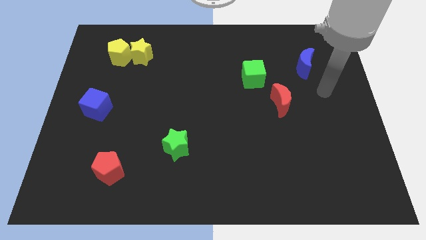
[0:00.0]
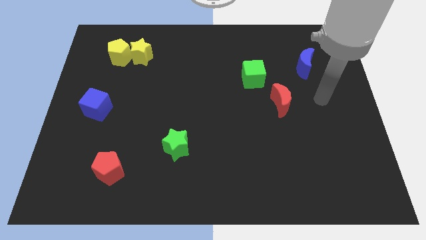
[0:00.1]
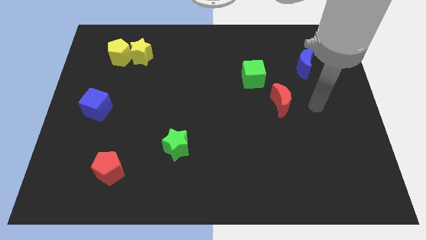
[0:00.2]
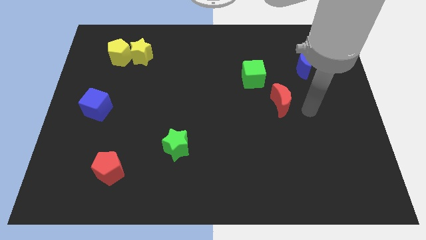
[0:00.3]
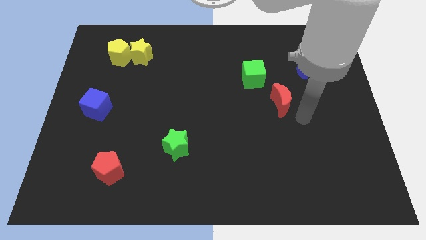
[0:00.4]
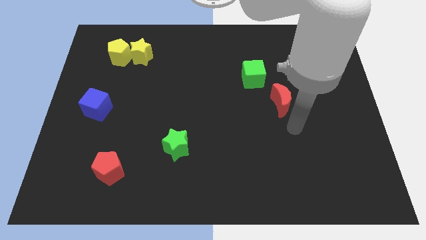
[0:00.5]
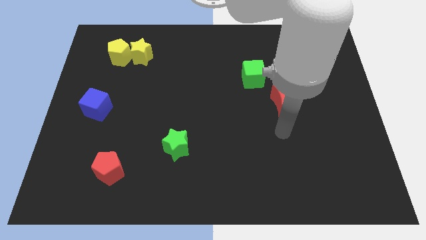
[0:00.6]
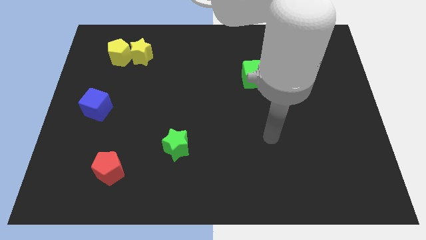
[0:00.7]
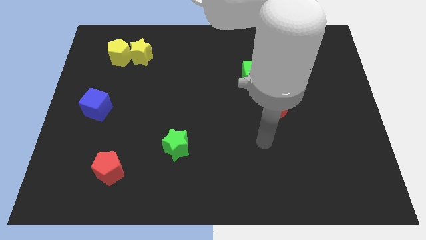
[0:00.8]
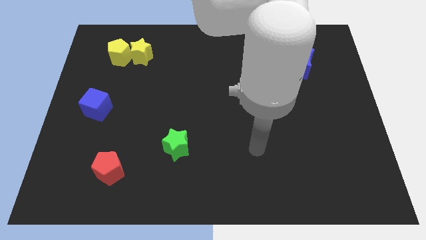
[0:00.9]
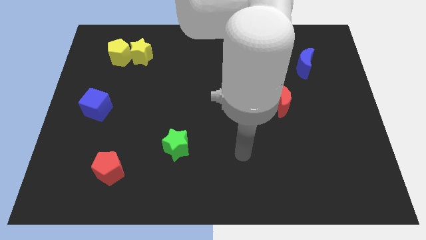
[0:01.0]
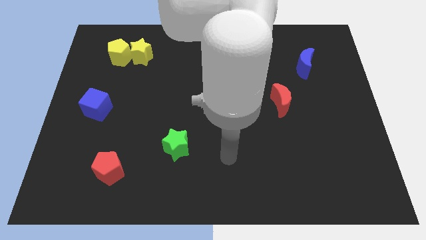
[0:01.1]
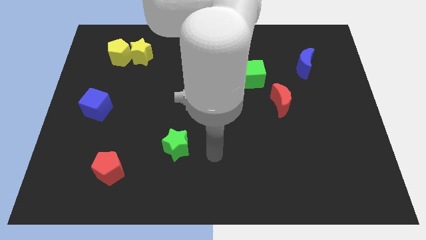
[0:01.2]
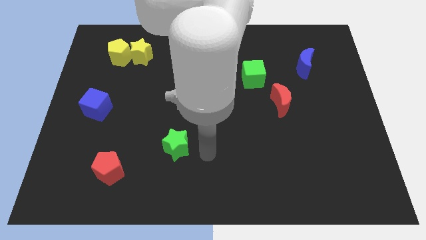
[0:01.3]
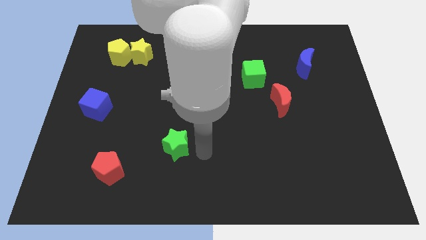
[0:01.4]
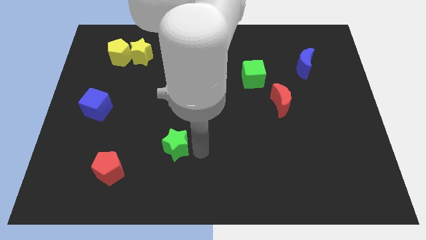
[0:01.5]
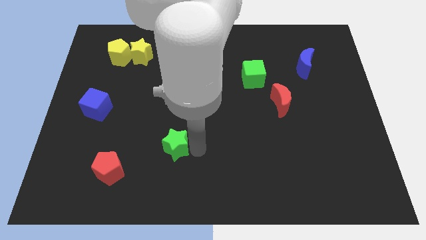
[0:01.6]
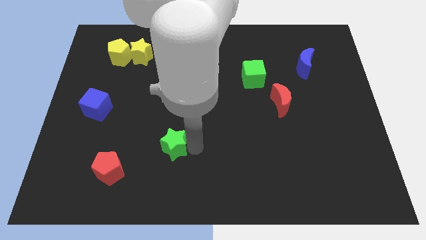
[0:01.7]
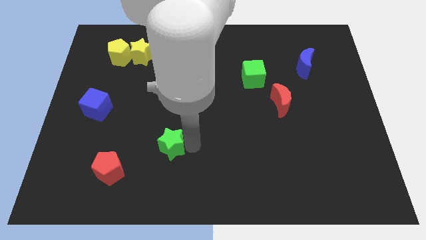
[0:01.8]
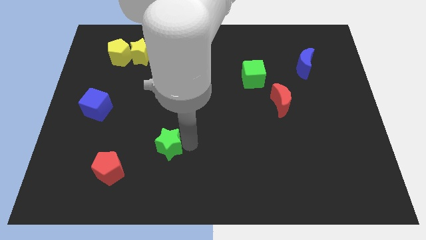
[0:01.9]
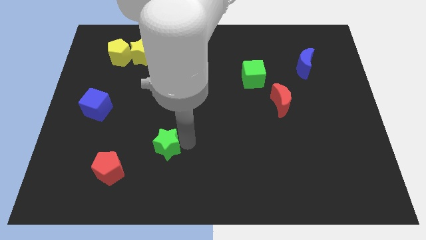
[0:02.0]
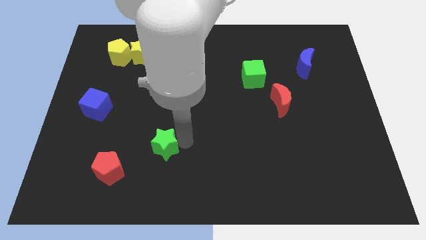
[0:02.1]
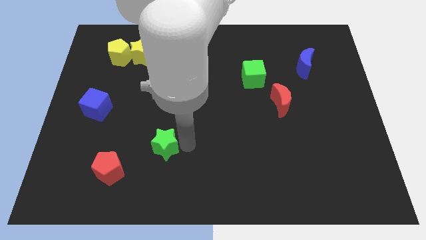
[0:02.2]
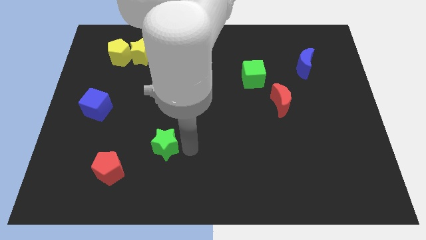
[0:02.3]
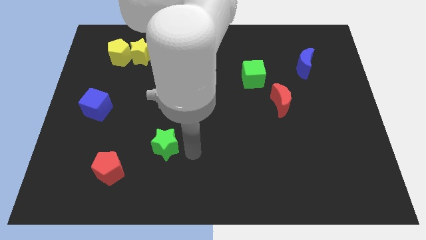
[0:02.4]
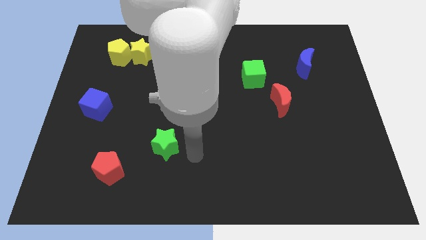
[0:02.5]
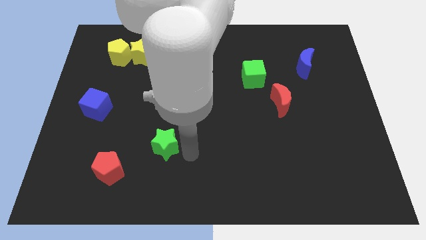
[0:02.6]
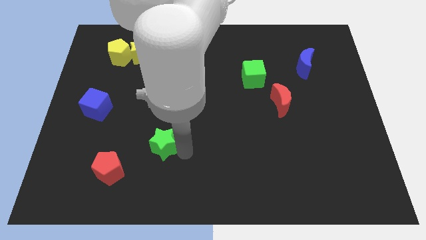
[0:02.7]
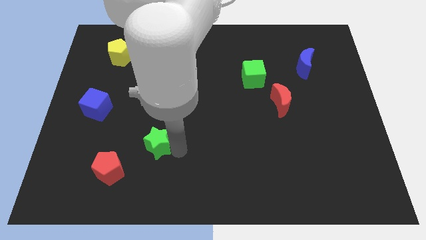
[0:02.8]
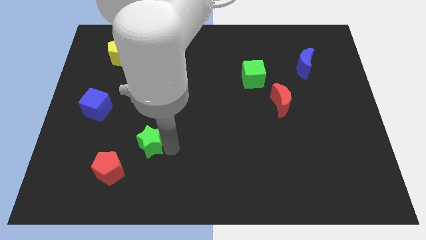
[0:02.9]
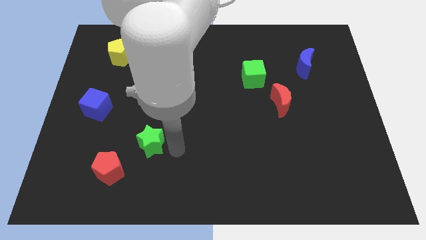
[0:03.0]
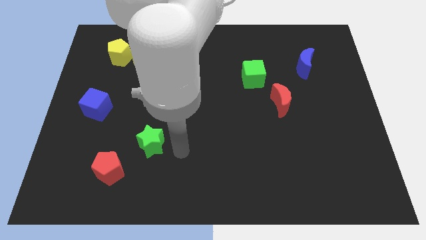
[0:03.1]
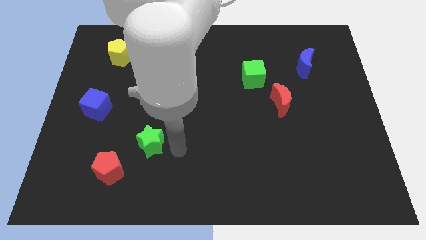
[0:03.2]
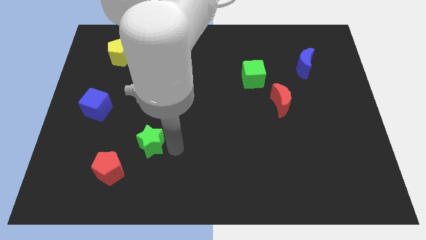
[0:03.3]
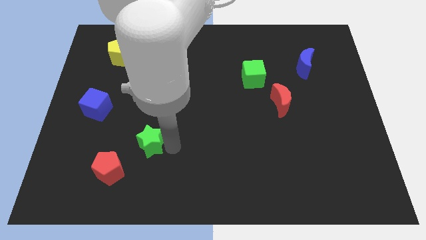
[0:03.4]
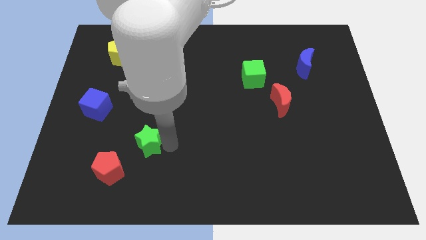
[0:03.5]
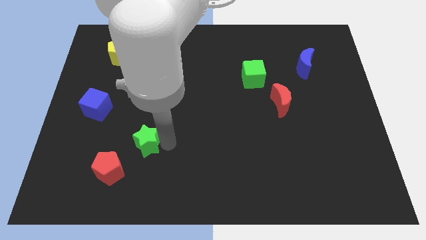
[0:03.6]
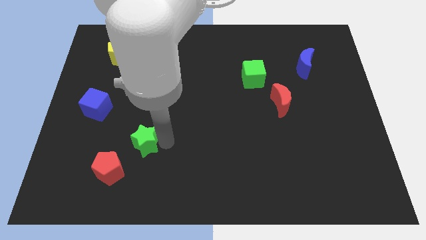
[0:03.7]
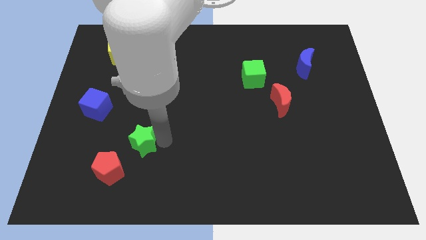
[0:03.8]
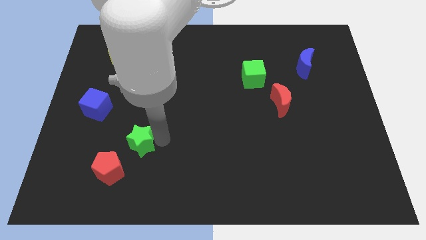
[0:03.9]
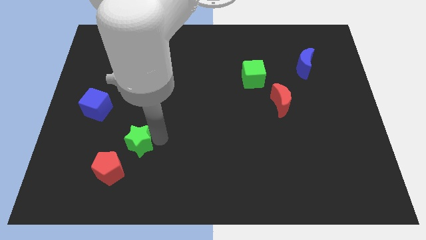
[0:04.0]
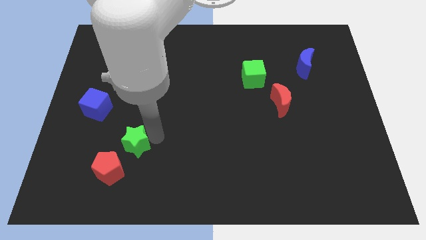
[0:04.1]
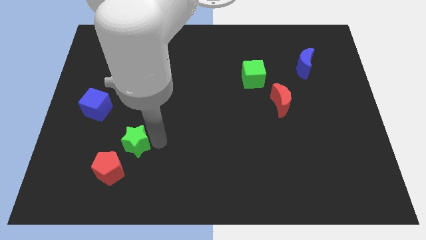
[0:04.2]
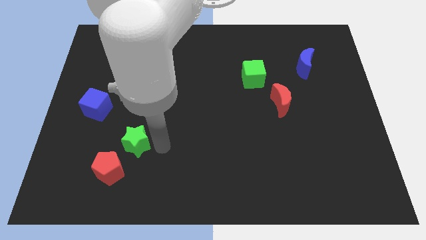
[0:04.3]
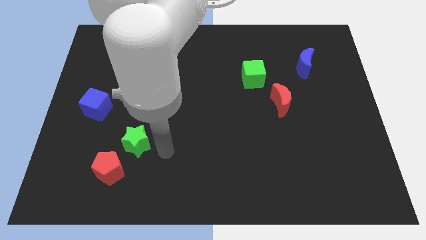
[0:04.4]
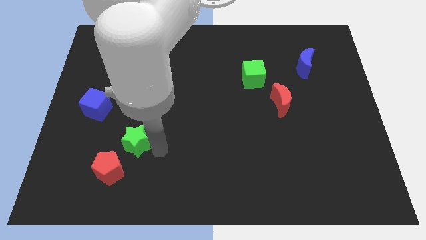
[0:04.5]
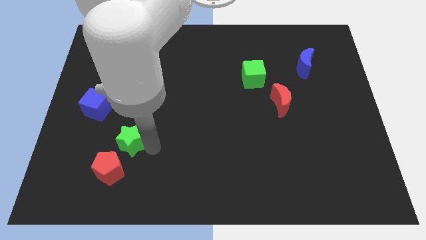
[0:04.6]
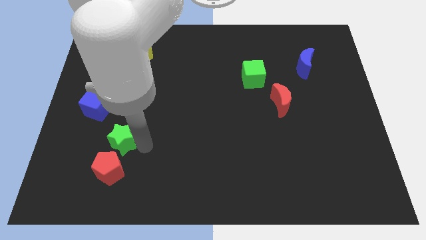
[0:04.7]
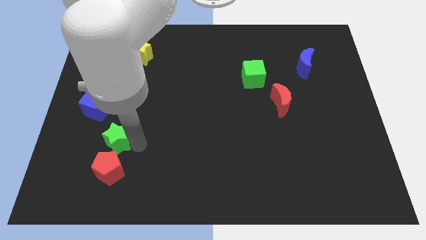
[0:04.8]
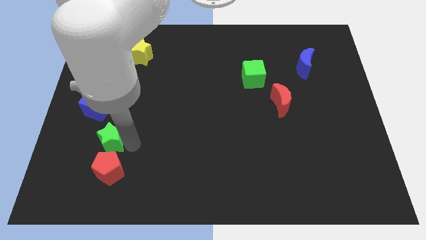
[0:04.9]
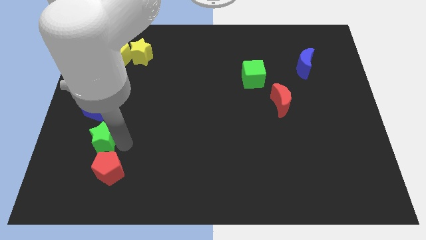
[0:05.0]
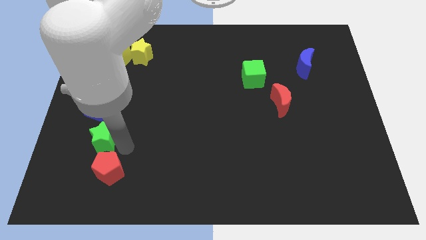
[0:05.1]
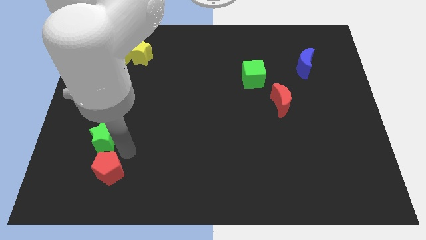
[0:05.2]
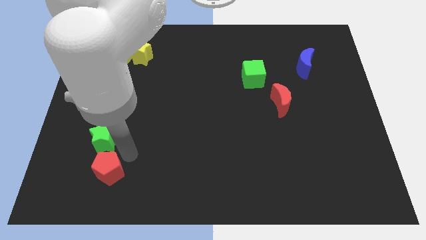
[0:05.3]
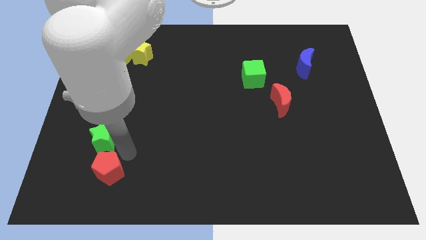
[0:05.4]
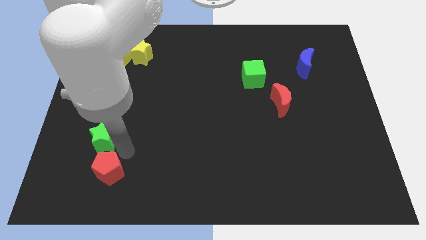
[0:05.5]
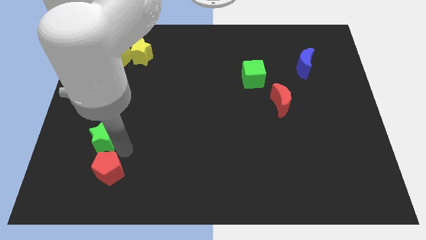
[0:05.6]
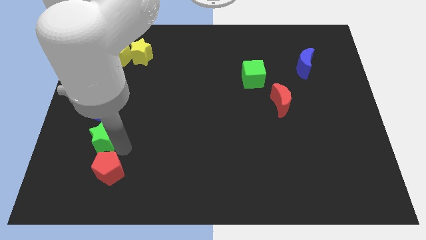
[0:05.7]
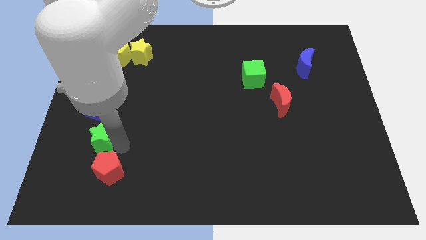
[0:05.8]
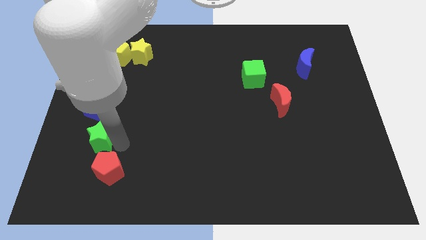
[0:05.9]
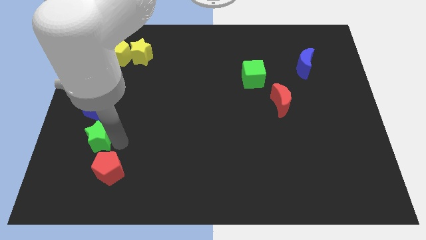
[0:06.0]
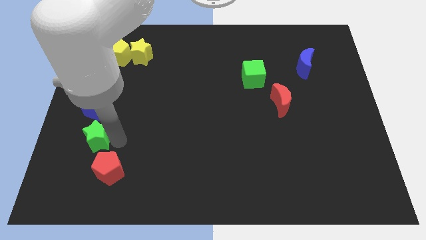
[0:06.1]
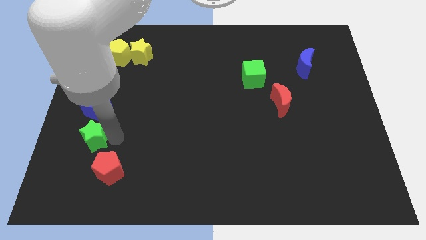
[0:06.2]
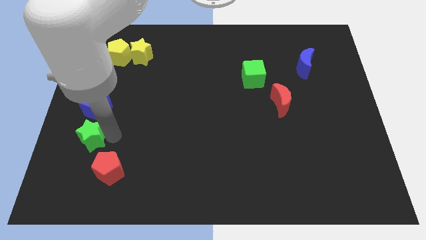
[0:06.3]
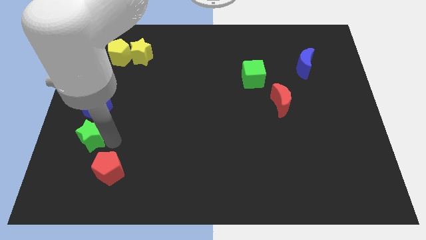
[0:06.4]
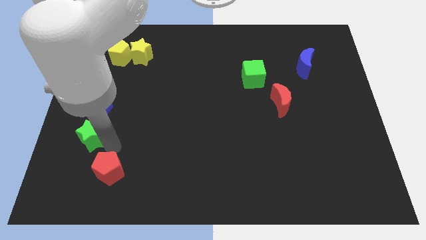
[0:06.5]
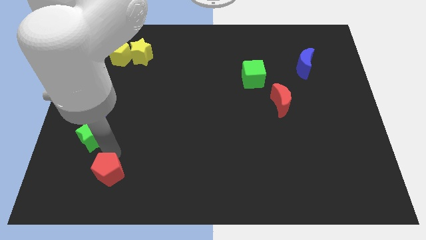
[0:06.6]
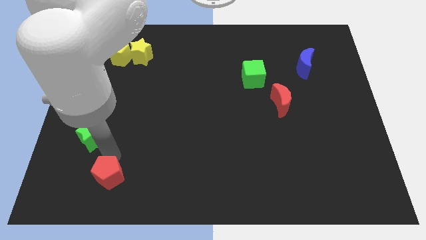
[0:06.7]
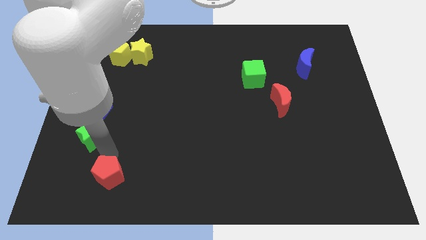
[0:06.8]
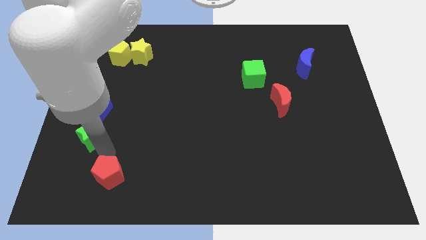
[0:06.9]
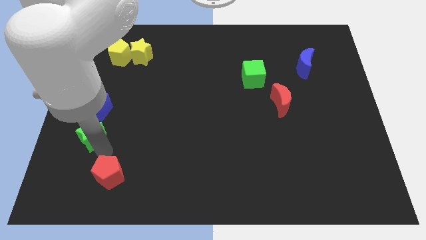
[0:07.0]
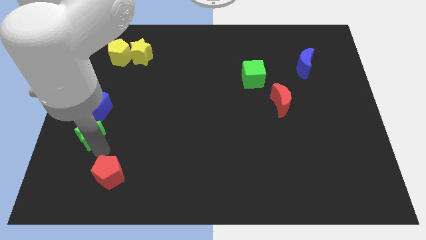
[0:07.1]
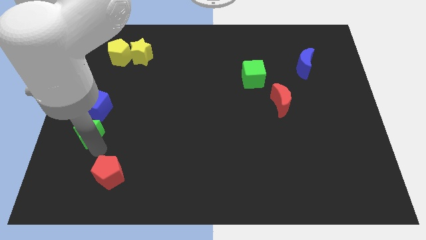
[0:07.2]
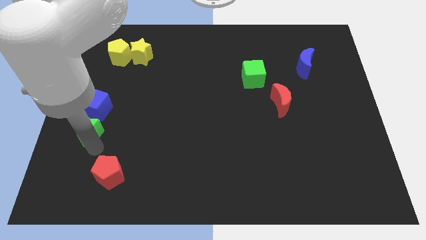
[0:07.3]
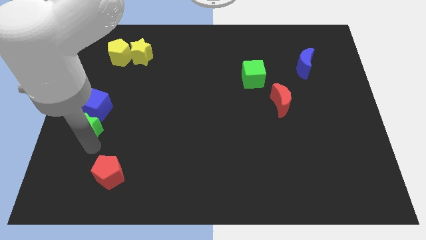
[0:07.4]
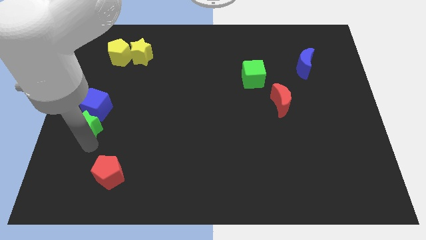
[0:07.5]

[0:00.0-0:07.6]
move the green star to the center left
